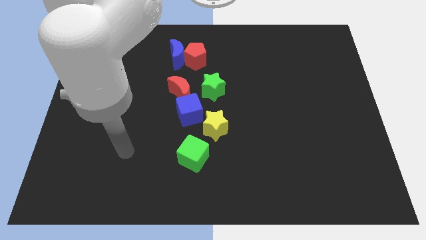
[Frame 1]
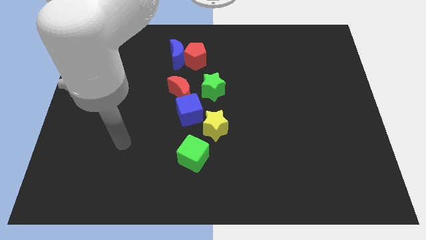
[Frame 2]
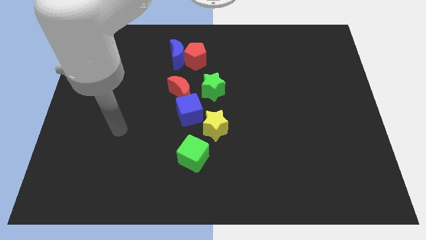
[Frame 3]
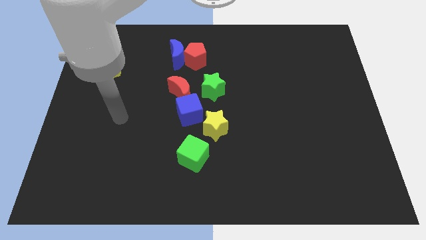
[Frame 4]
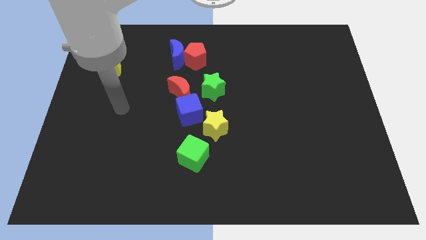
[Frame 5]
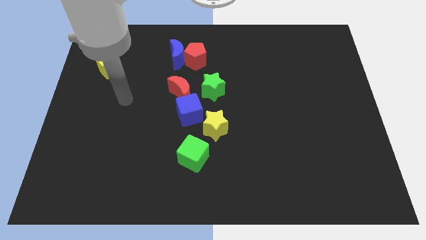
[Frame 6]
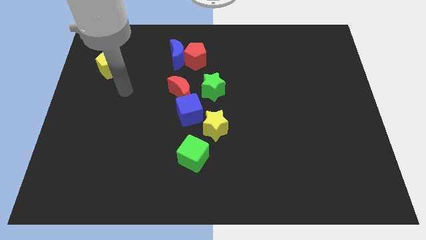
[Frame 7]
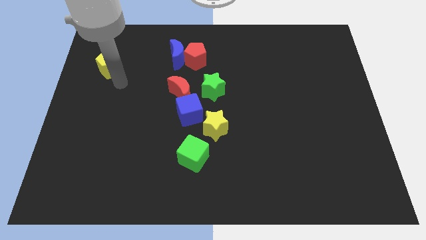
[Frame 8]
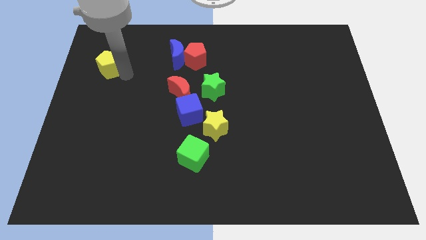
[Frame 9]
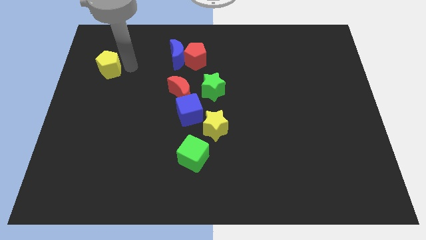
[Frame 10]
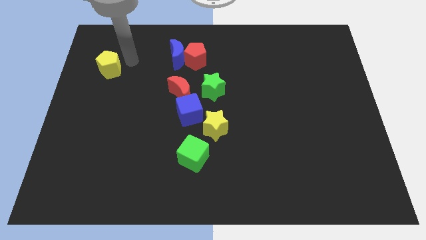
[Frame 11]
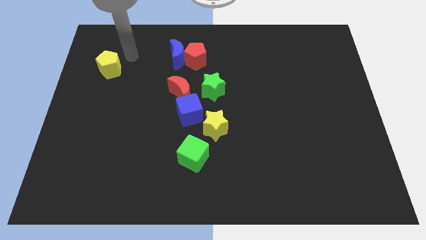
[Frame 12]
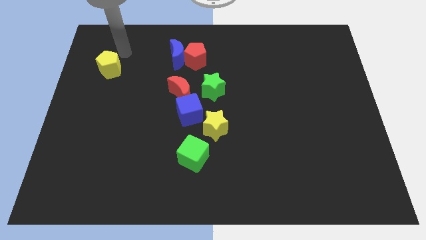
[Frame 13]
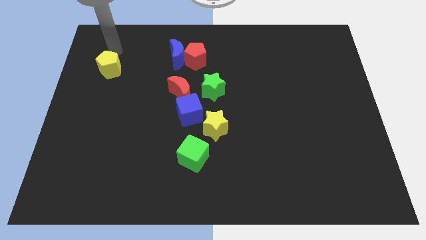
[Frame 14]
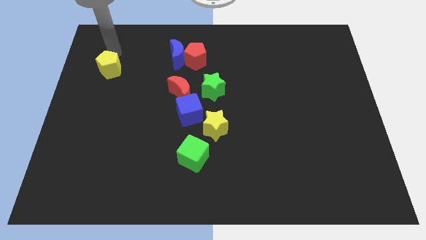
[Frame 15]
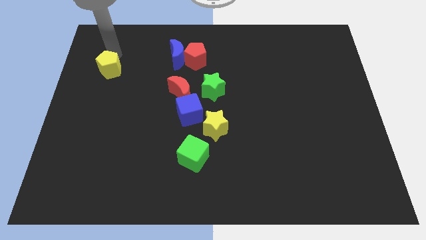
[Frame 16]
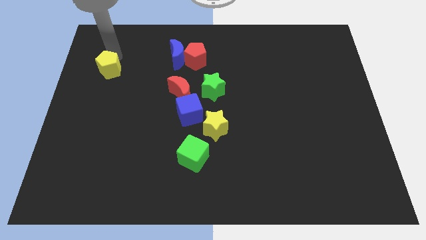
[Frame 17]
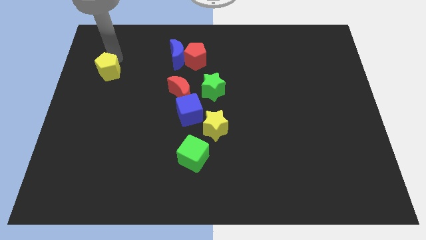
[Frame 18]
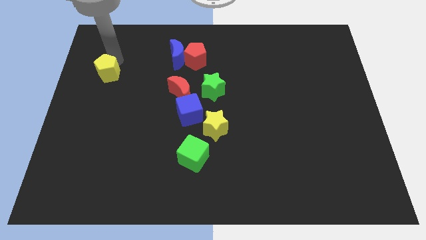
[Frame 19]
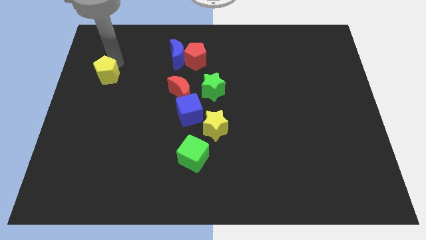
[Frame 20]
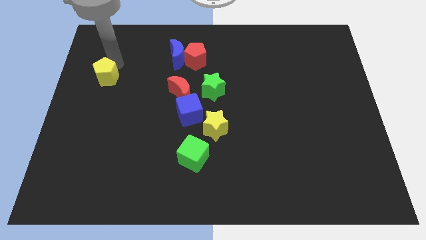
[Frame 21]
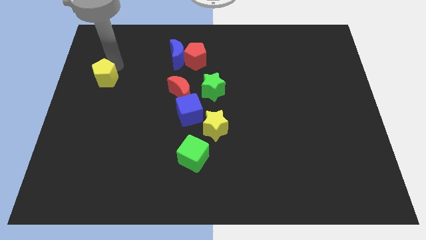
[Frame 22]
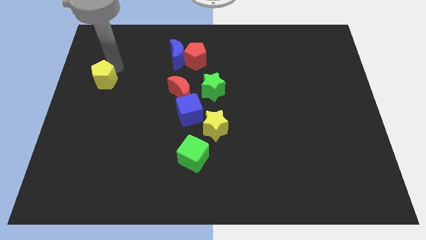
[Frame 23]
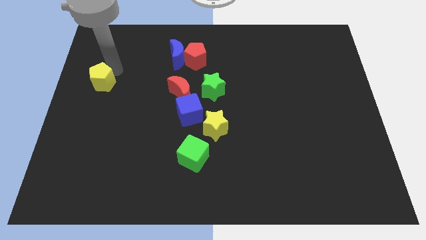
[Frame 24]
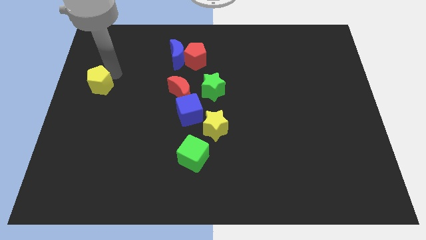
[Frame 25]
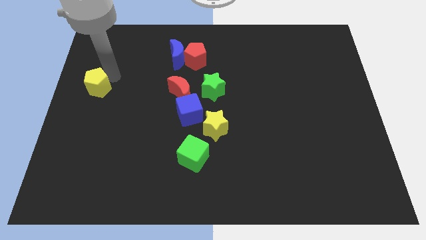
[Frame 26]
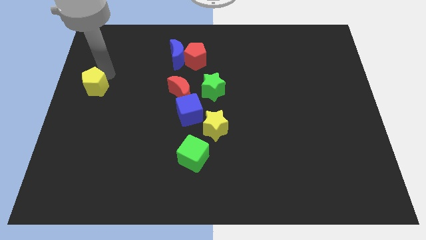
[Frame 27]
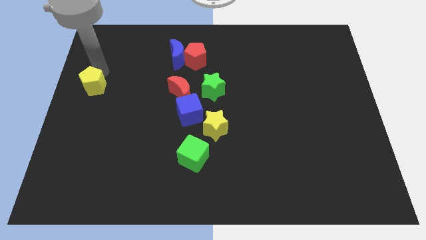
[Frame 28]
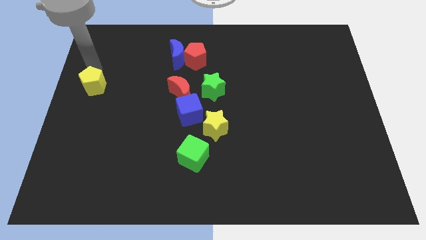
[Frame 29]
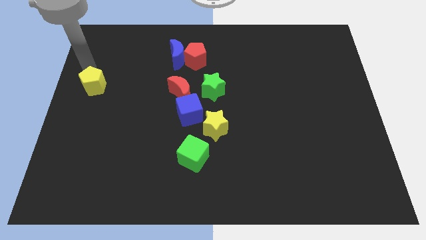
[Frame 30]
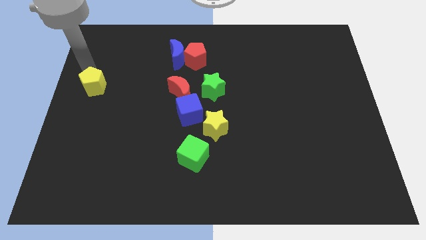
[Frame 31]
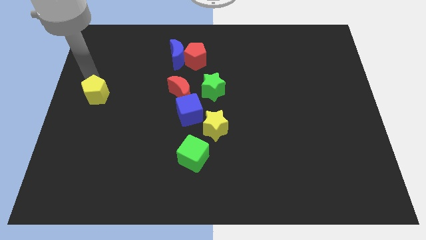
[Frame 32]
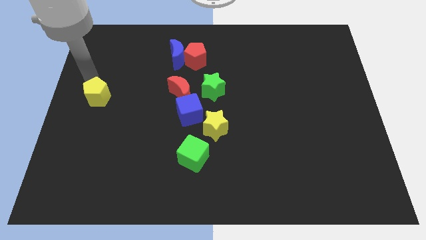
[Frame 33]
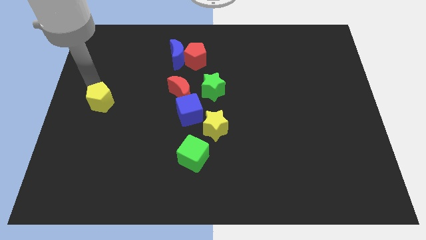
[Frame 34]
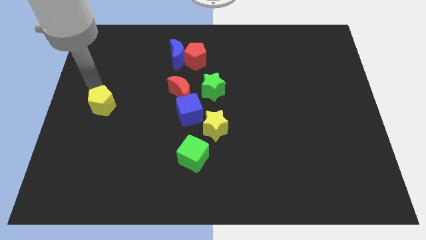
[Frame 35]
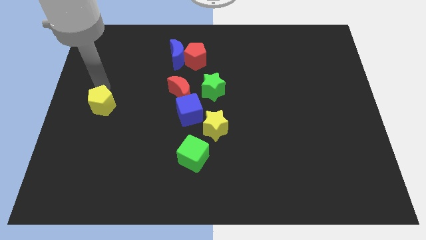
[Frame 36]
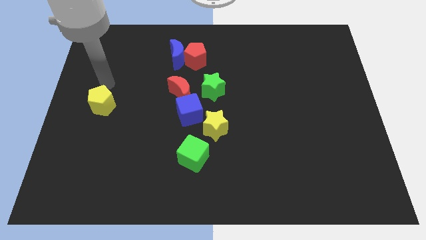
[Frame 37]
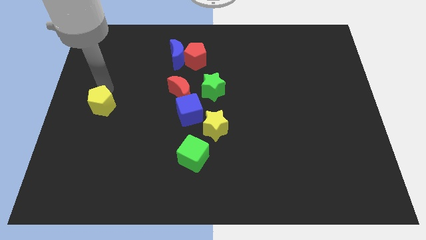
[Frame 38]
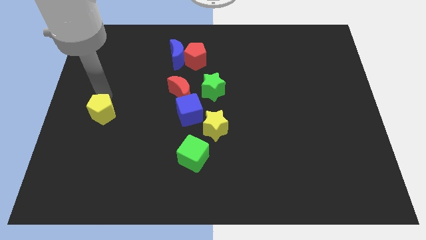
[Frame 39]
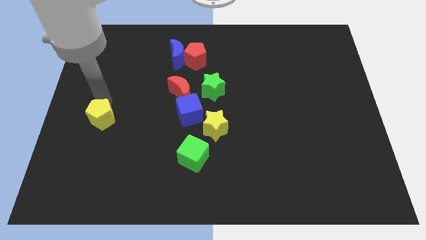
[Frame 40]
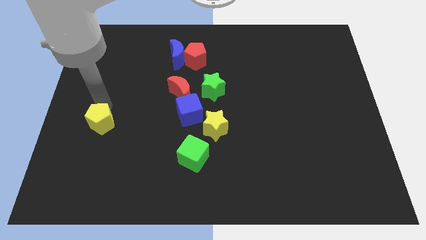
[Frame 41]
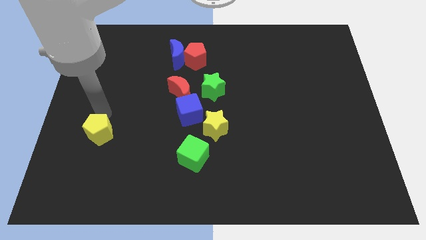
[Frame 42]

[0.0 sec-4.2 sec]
push the yellow pentagon downwards

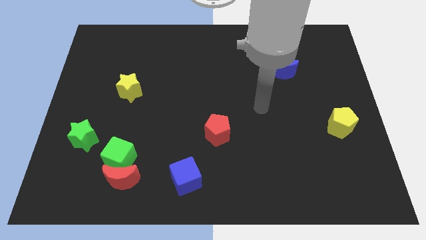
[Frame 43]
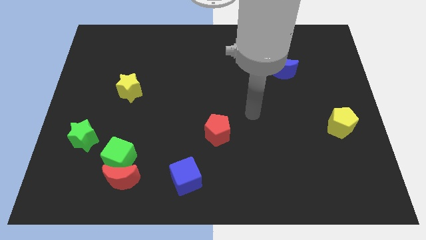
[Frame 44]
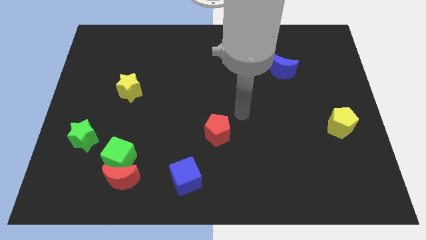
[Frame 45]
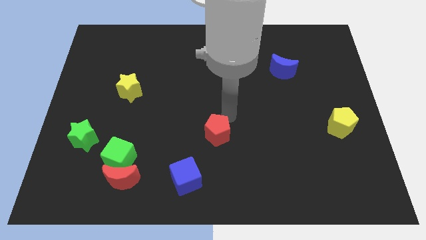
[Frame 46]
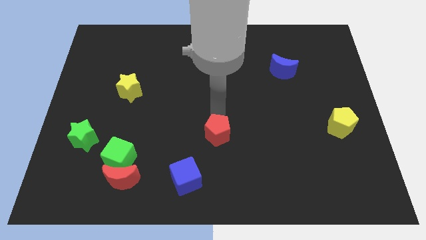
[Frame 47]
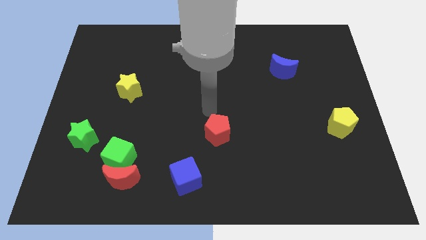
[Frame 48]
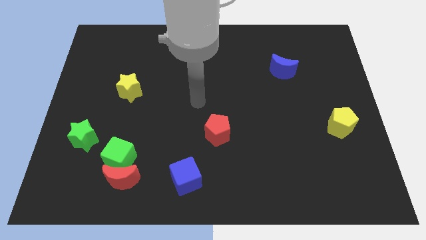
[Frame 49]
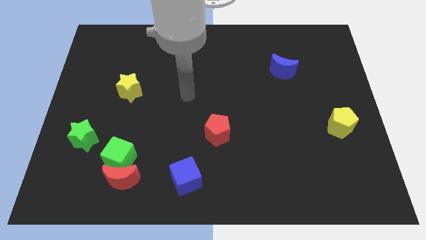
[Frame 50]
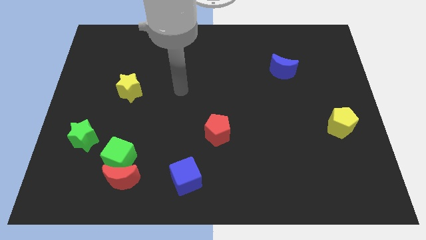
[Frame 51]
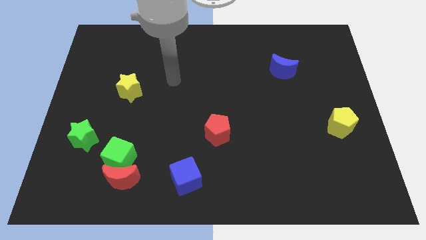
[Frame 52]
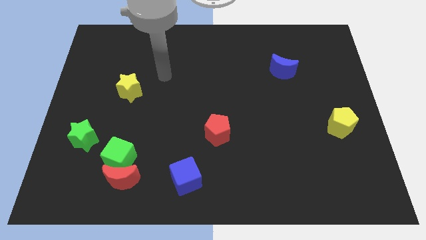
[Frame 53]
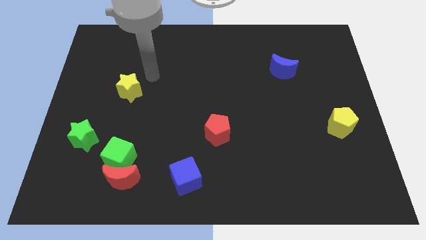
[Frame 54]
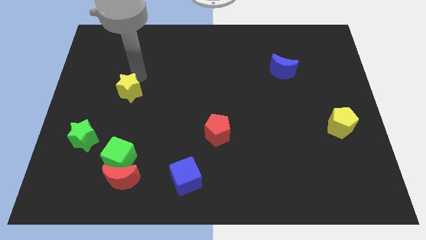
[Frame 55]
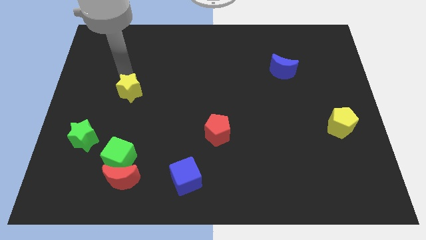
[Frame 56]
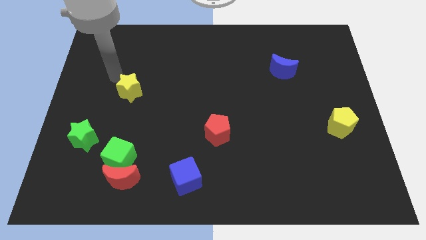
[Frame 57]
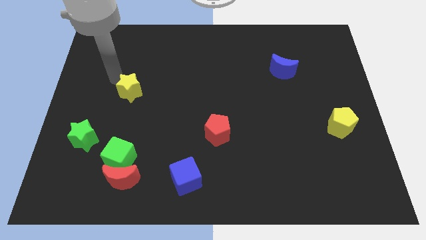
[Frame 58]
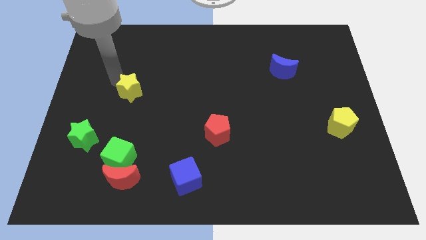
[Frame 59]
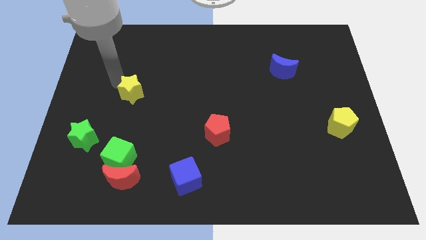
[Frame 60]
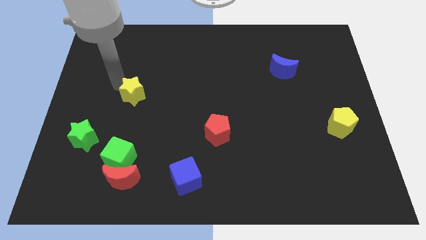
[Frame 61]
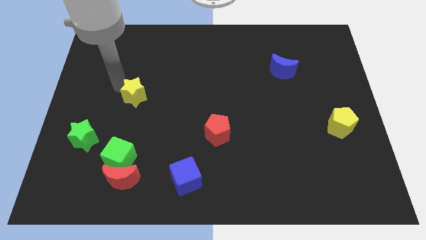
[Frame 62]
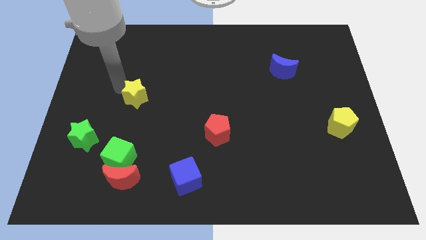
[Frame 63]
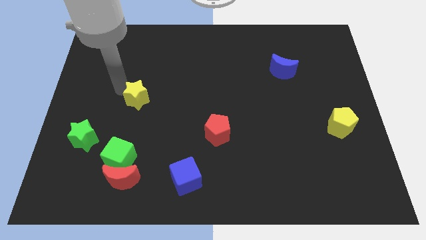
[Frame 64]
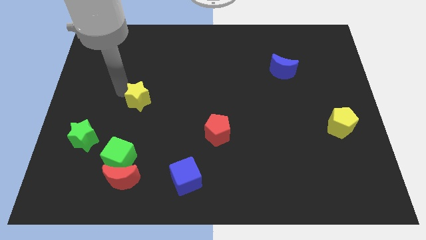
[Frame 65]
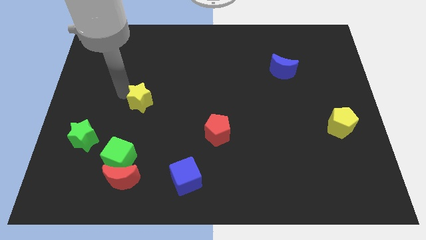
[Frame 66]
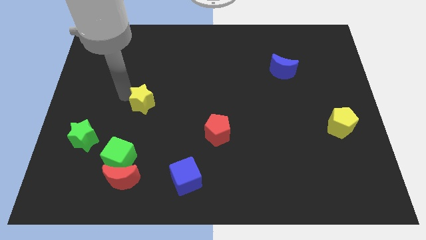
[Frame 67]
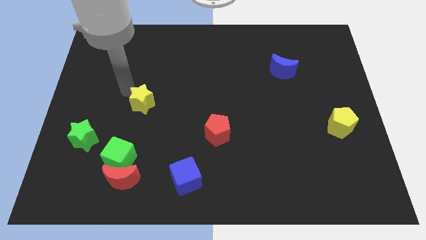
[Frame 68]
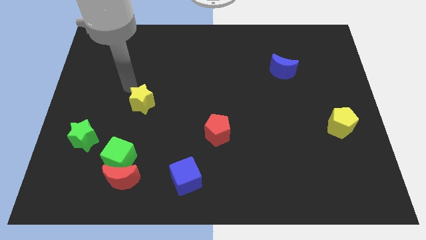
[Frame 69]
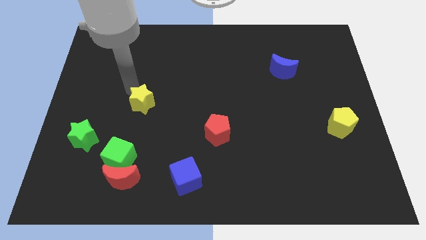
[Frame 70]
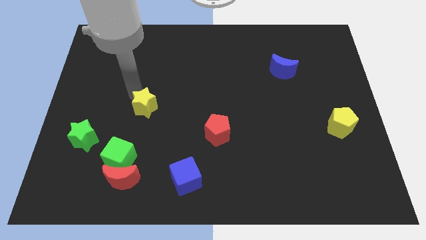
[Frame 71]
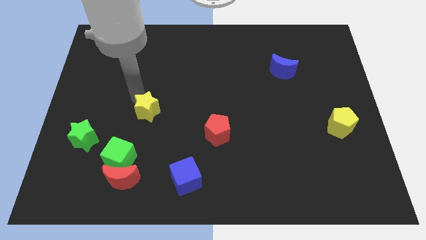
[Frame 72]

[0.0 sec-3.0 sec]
slide the yellow star a little bit downwards and to the right

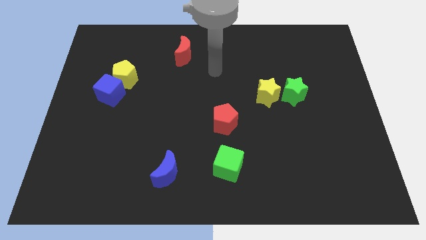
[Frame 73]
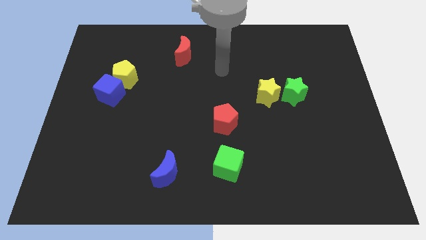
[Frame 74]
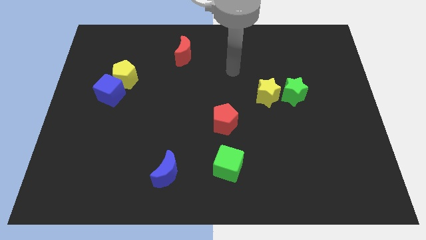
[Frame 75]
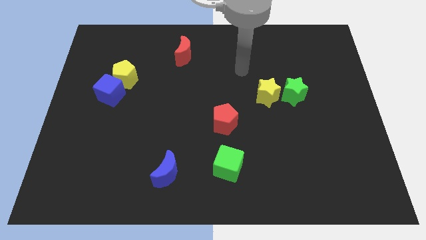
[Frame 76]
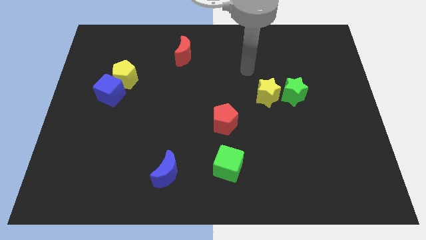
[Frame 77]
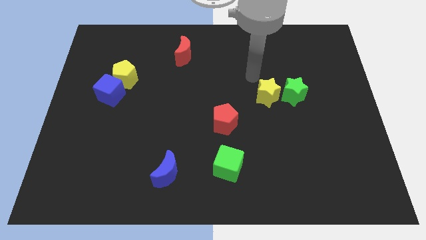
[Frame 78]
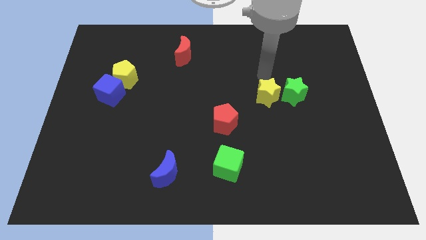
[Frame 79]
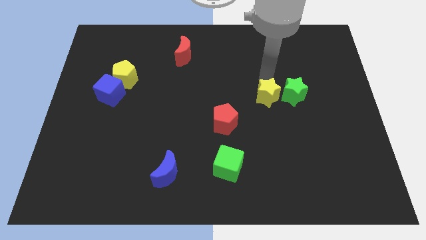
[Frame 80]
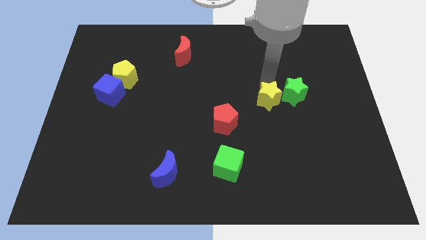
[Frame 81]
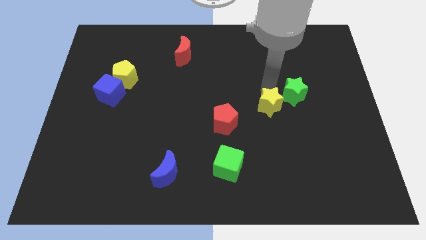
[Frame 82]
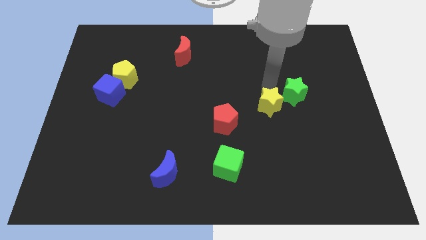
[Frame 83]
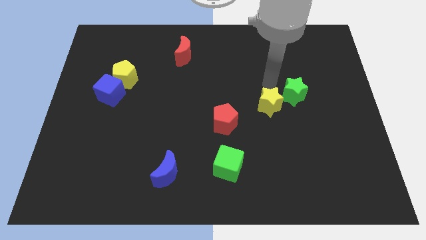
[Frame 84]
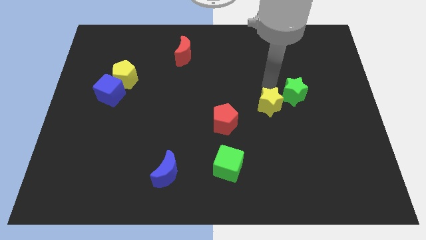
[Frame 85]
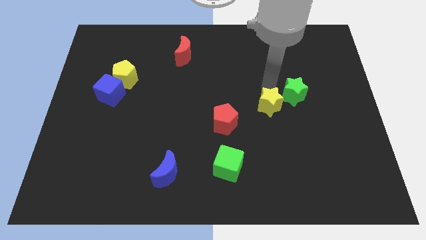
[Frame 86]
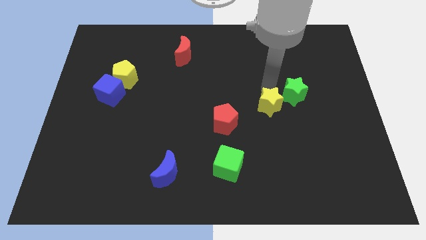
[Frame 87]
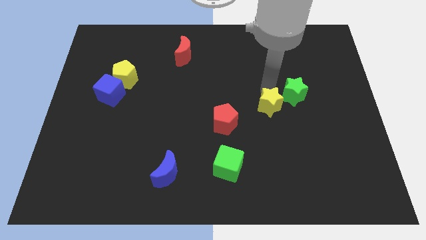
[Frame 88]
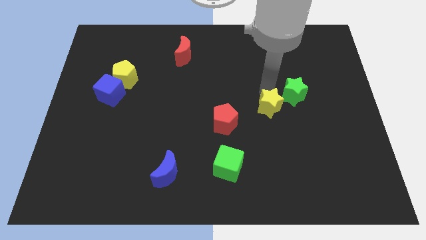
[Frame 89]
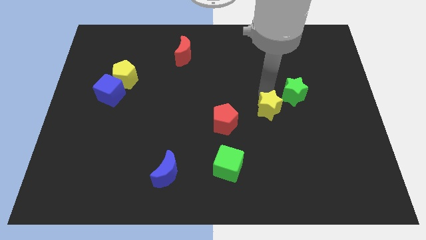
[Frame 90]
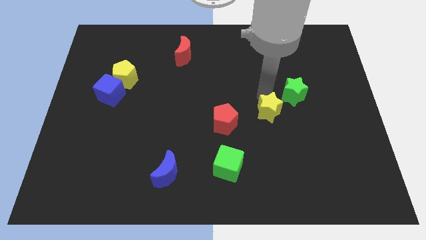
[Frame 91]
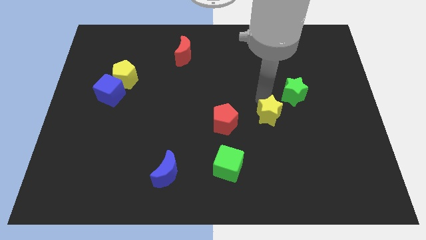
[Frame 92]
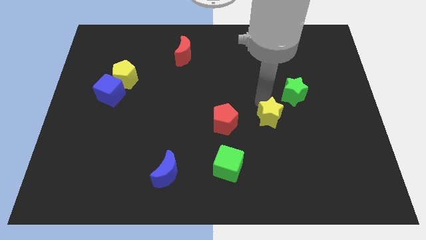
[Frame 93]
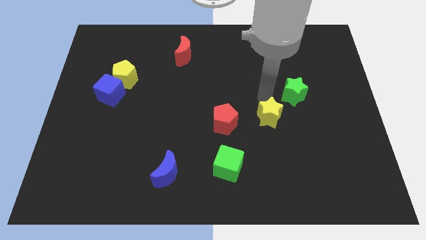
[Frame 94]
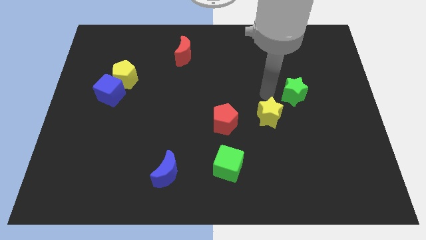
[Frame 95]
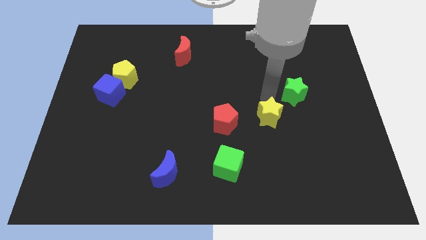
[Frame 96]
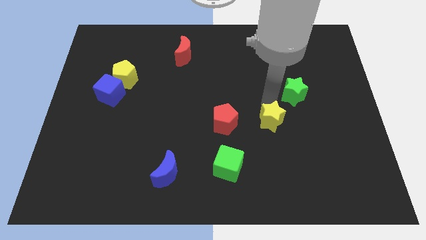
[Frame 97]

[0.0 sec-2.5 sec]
move the yellow star downwards somewhat
